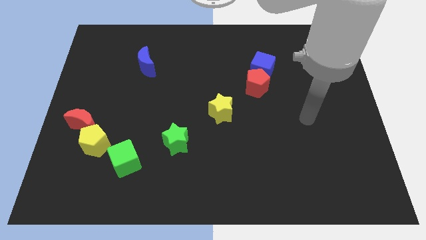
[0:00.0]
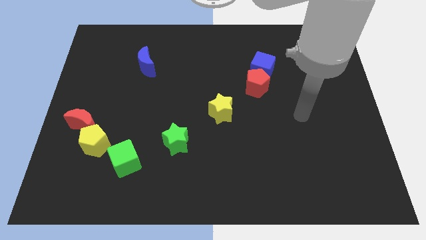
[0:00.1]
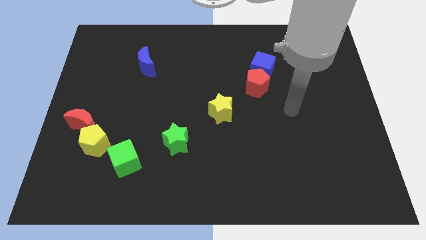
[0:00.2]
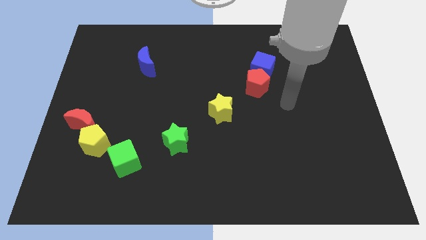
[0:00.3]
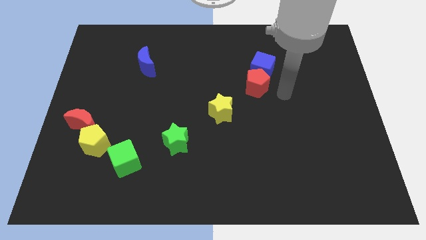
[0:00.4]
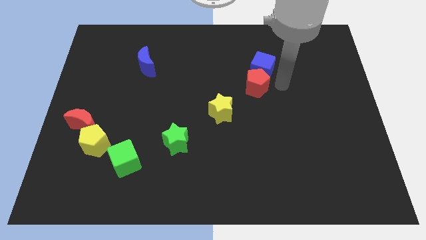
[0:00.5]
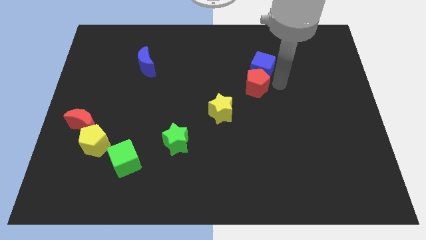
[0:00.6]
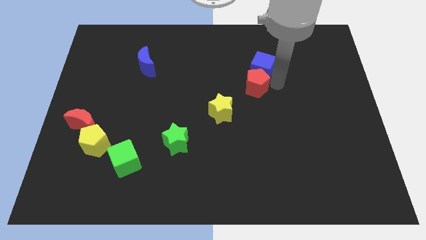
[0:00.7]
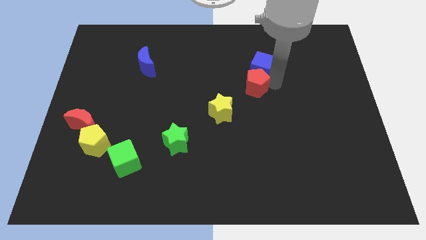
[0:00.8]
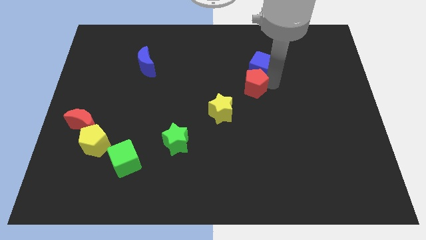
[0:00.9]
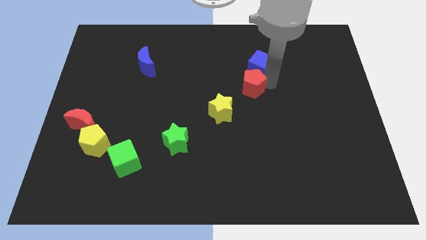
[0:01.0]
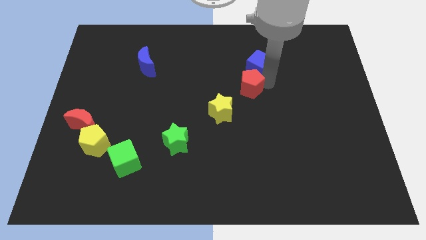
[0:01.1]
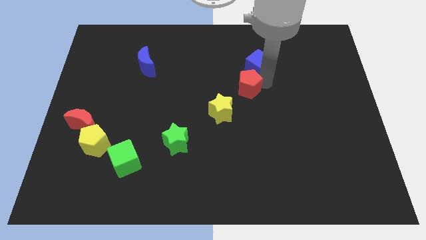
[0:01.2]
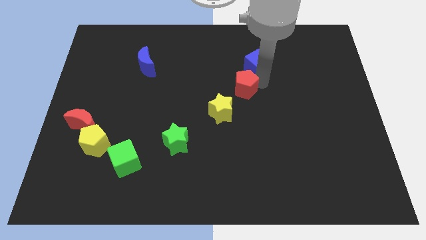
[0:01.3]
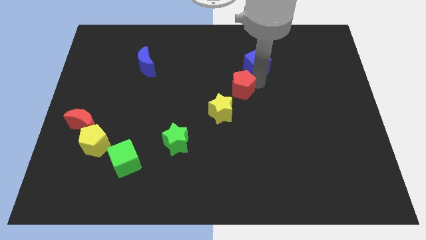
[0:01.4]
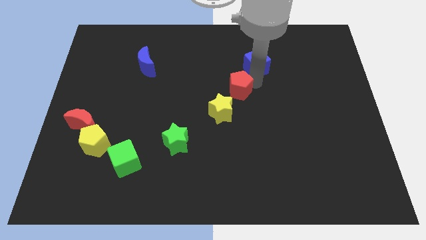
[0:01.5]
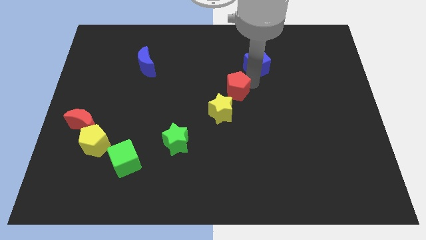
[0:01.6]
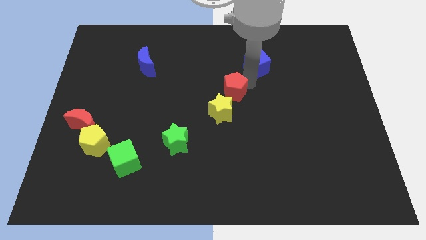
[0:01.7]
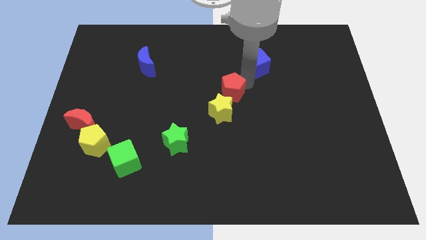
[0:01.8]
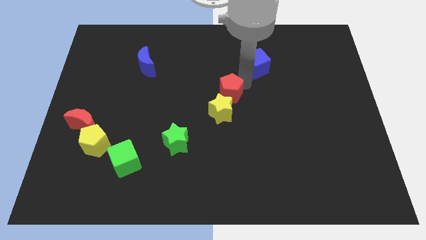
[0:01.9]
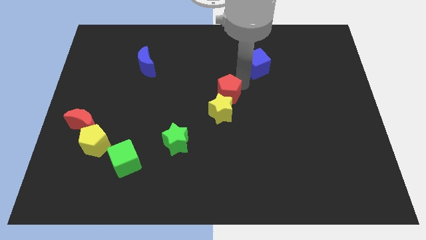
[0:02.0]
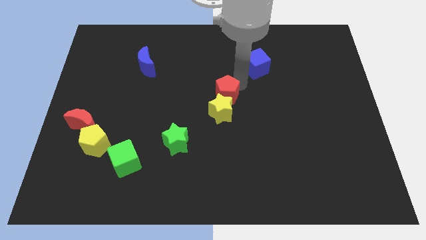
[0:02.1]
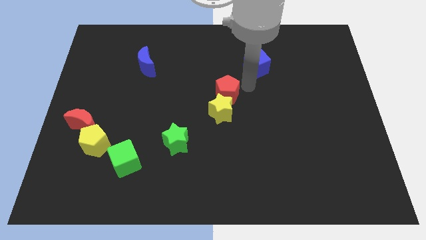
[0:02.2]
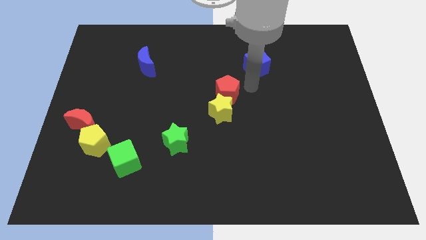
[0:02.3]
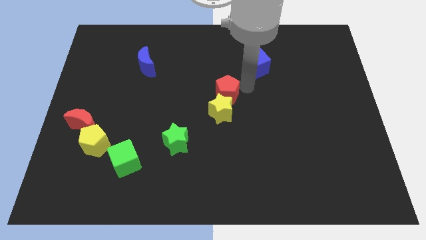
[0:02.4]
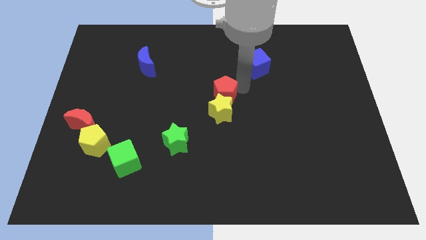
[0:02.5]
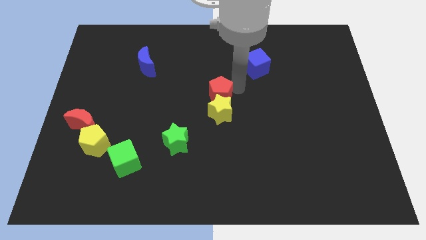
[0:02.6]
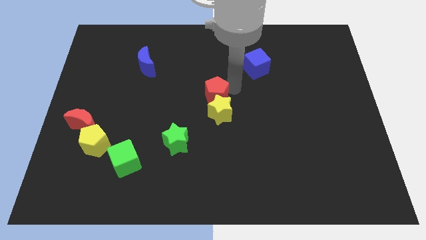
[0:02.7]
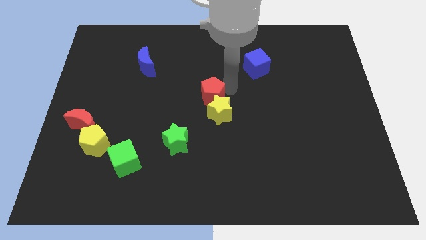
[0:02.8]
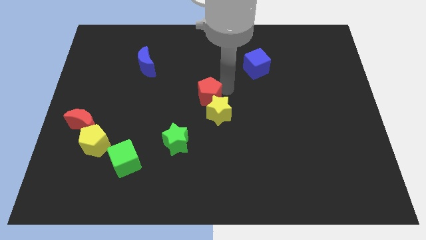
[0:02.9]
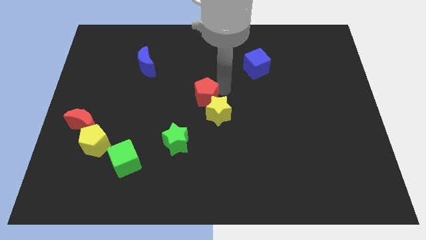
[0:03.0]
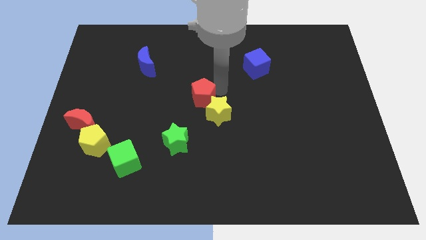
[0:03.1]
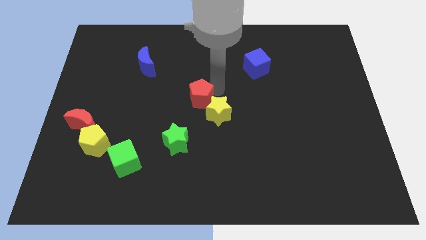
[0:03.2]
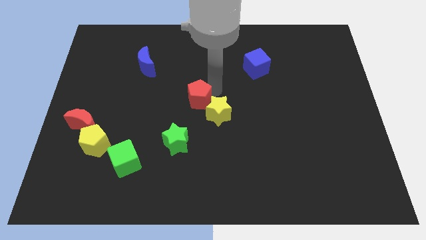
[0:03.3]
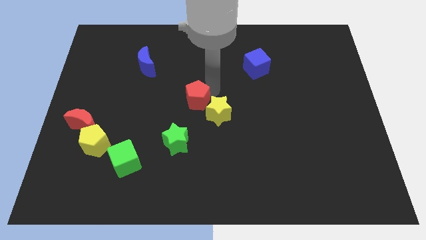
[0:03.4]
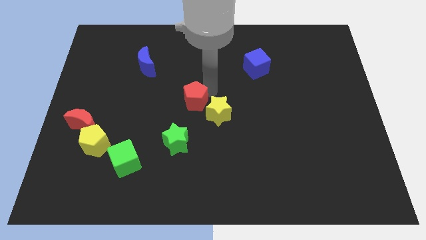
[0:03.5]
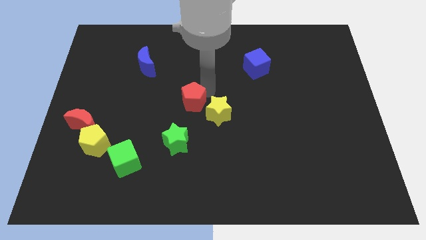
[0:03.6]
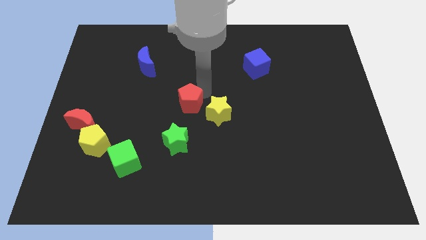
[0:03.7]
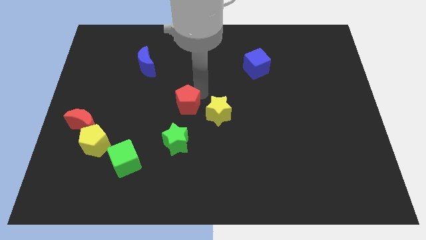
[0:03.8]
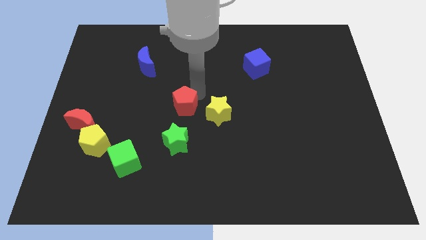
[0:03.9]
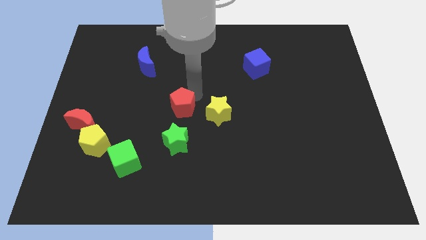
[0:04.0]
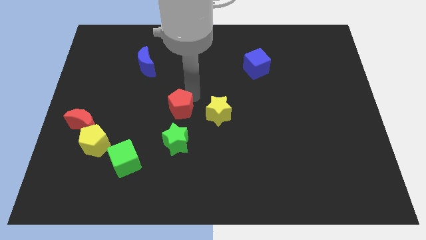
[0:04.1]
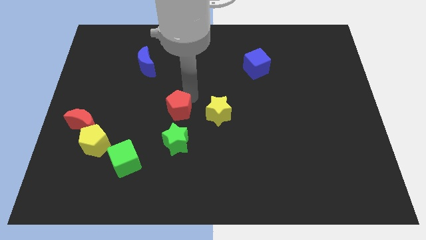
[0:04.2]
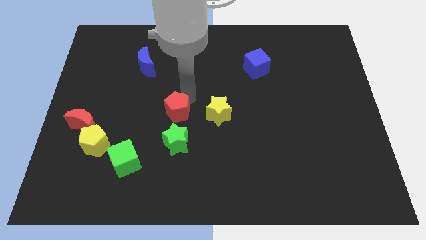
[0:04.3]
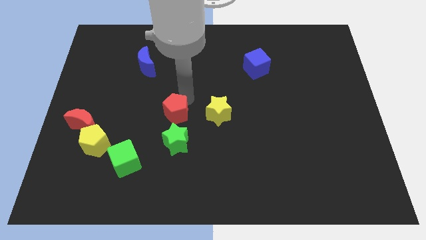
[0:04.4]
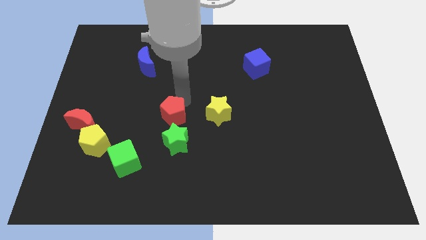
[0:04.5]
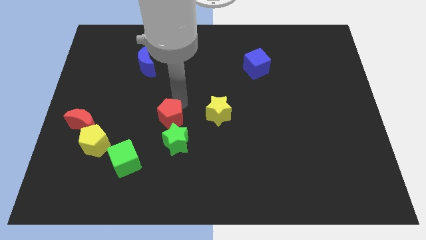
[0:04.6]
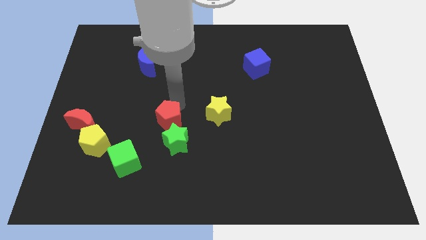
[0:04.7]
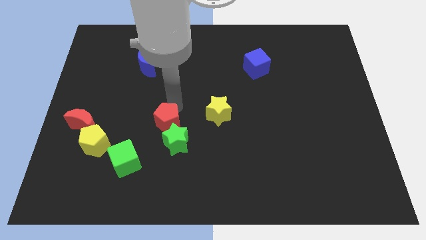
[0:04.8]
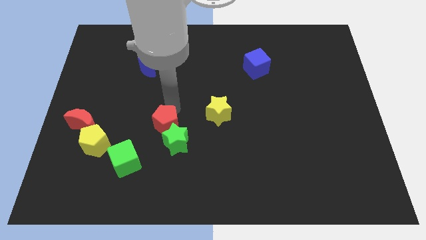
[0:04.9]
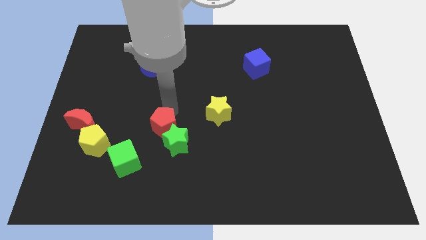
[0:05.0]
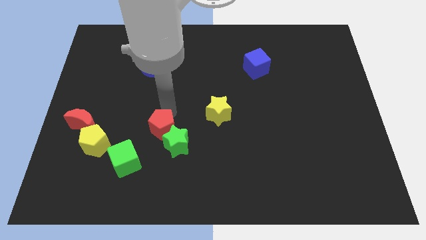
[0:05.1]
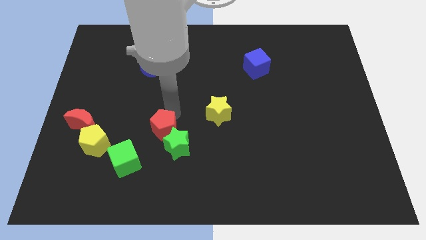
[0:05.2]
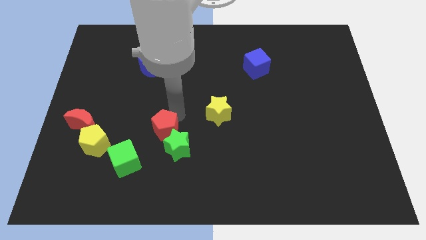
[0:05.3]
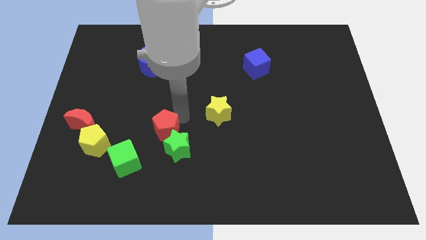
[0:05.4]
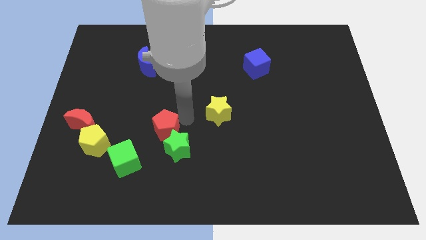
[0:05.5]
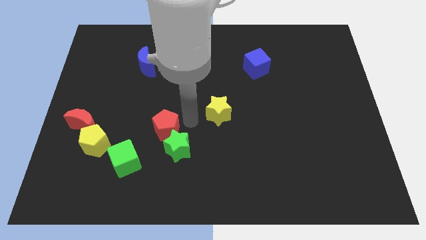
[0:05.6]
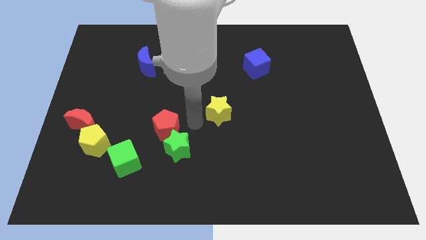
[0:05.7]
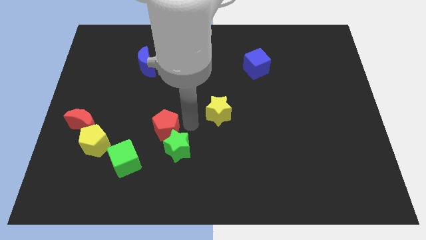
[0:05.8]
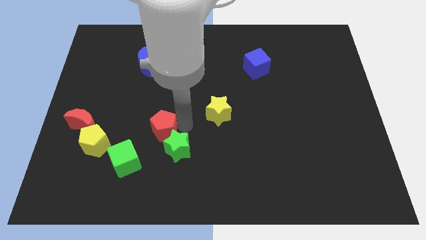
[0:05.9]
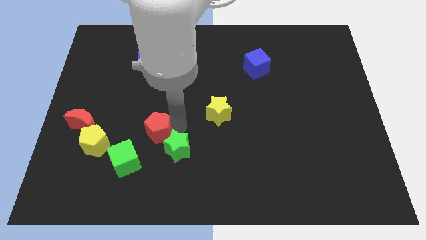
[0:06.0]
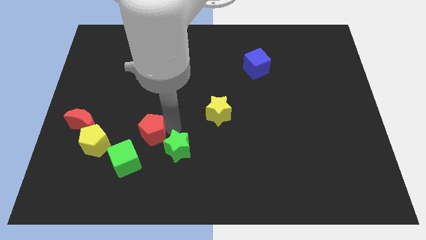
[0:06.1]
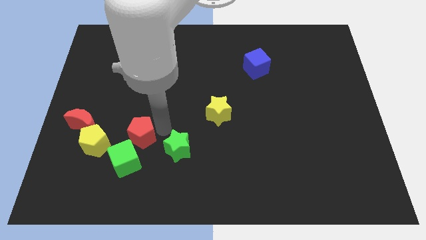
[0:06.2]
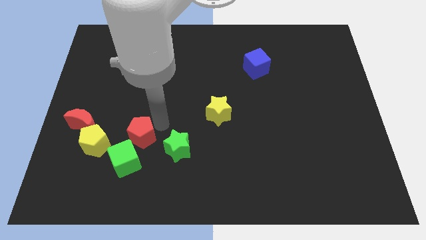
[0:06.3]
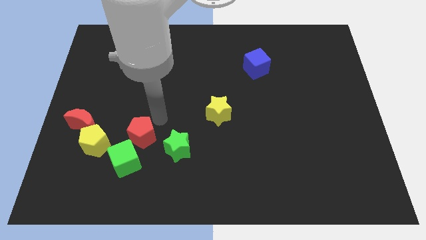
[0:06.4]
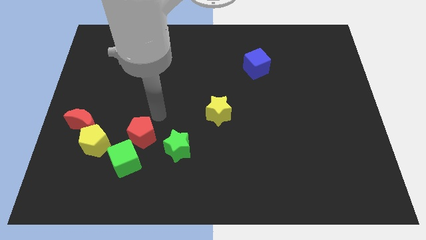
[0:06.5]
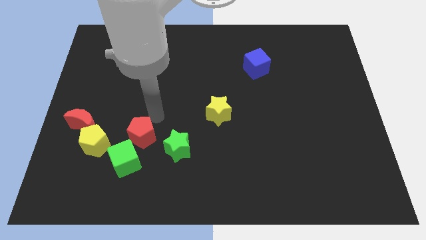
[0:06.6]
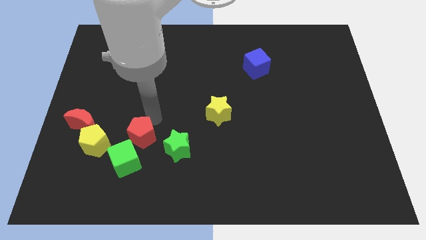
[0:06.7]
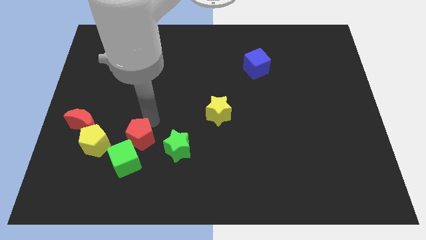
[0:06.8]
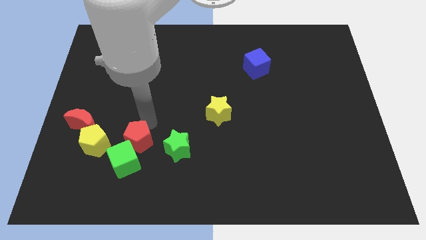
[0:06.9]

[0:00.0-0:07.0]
move the red pentagon close to the green cube

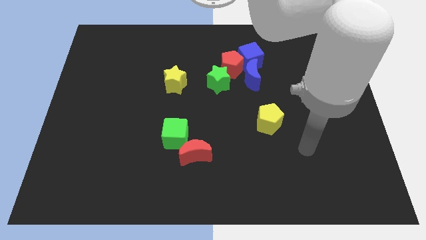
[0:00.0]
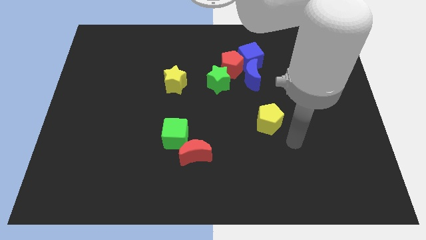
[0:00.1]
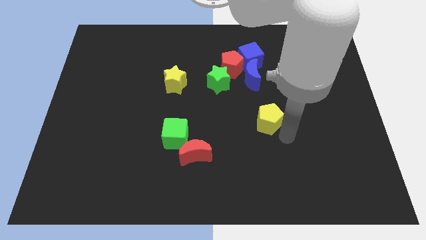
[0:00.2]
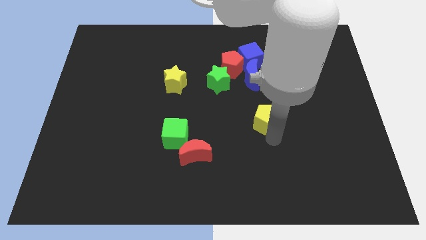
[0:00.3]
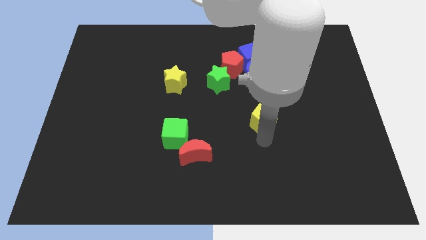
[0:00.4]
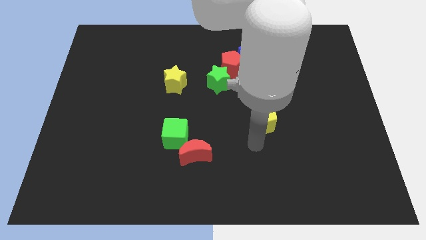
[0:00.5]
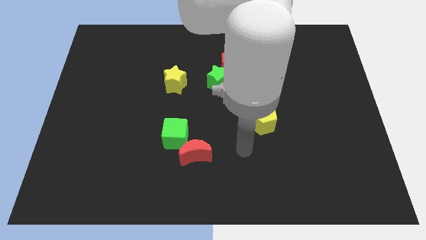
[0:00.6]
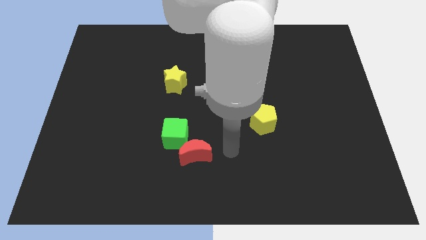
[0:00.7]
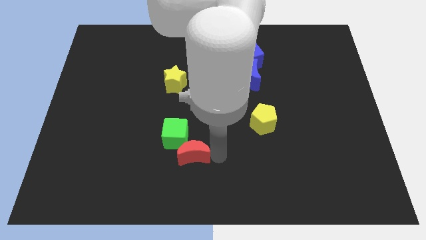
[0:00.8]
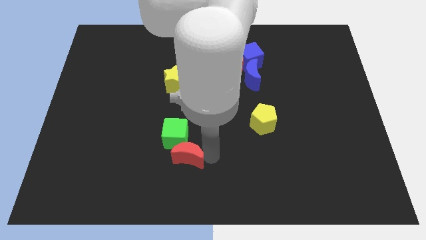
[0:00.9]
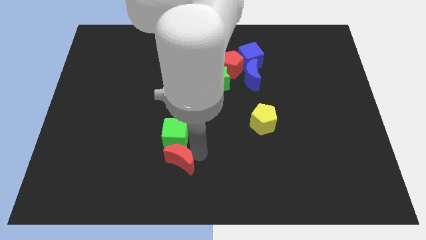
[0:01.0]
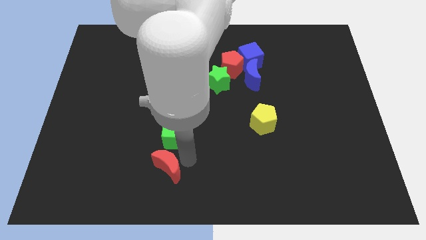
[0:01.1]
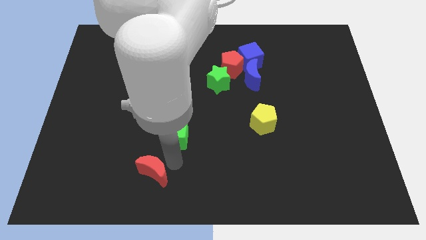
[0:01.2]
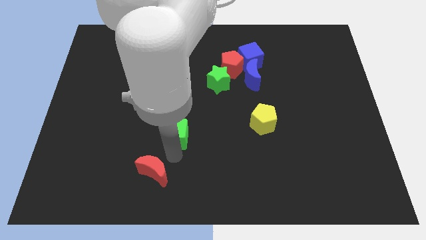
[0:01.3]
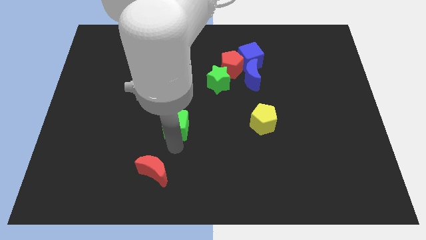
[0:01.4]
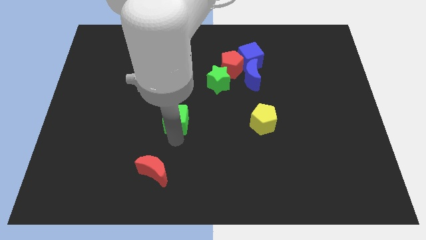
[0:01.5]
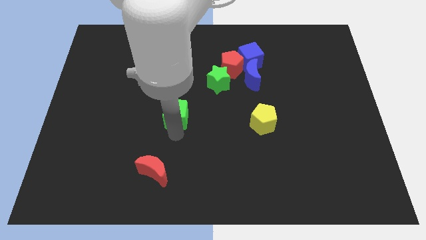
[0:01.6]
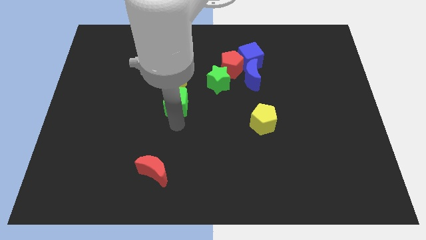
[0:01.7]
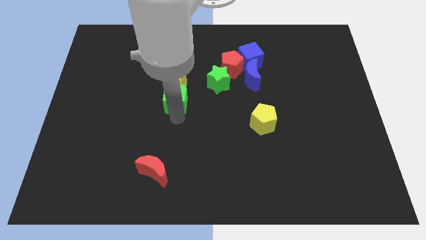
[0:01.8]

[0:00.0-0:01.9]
move the green cube towards the yellow star
